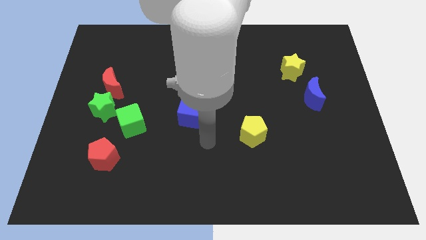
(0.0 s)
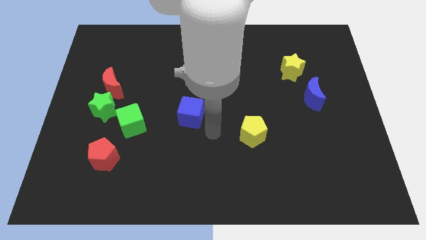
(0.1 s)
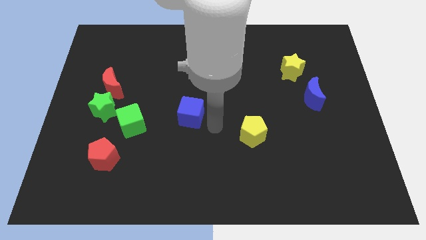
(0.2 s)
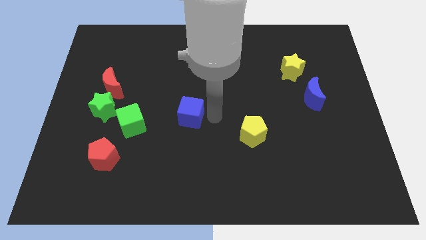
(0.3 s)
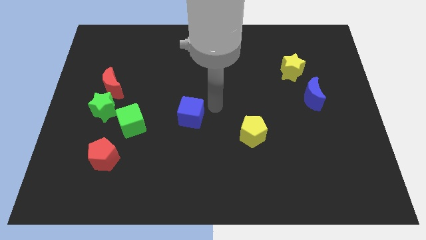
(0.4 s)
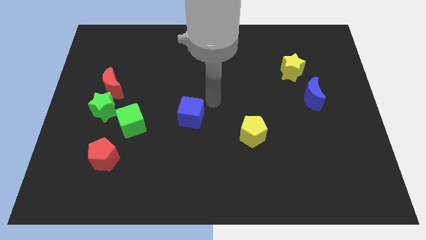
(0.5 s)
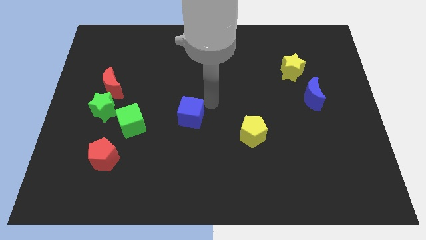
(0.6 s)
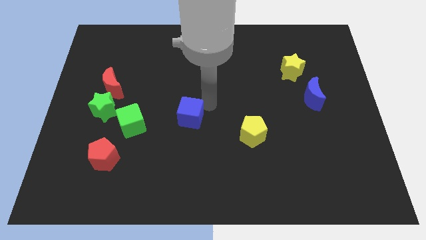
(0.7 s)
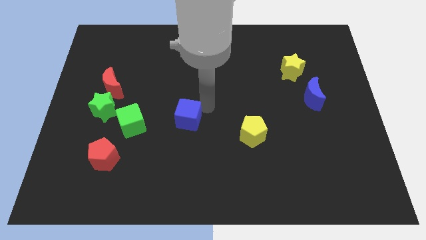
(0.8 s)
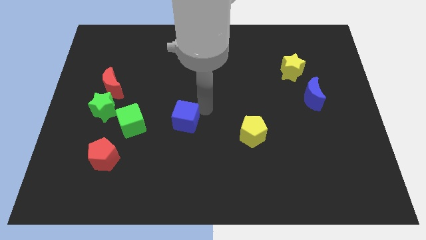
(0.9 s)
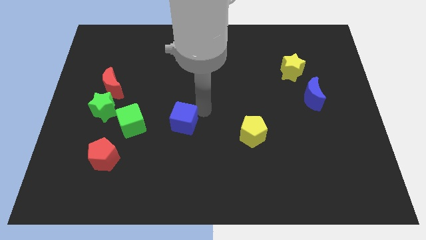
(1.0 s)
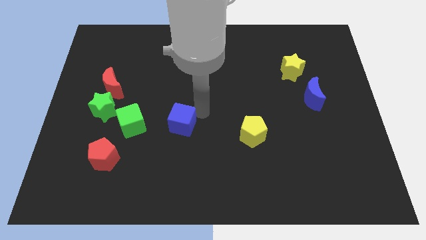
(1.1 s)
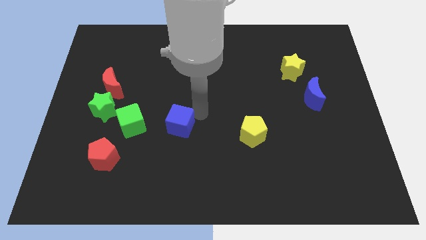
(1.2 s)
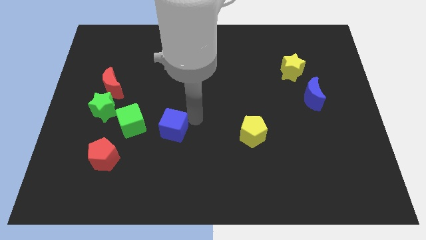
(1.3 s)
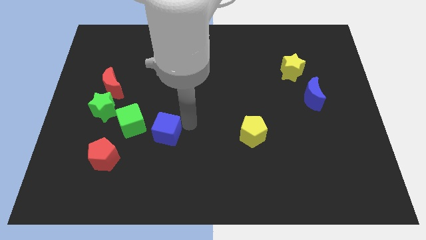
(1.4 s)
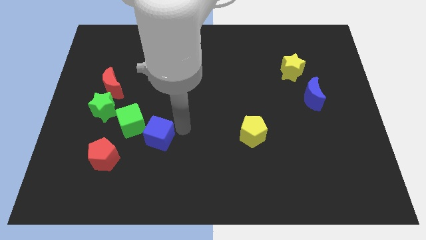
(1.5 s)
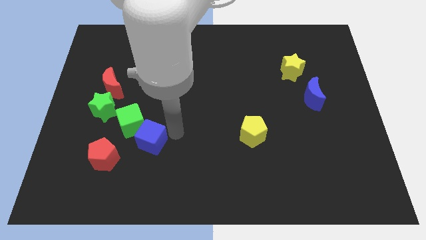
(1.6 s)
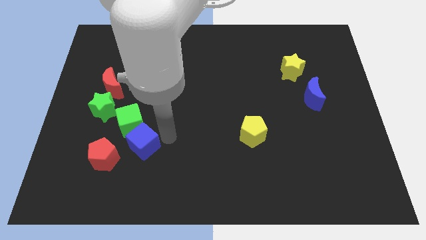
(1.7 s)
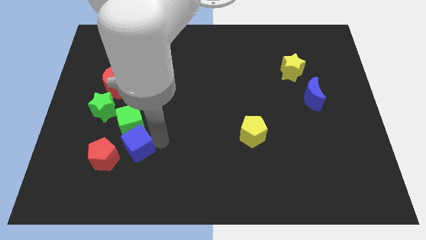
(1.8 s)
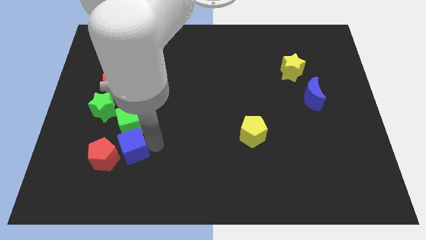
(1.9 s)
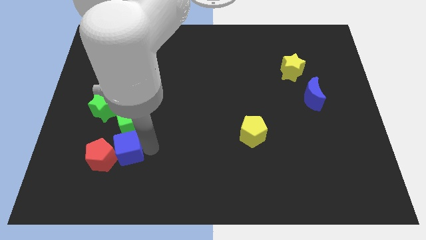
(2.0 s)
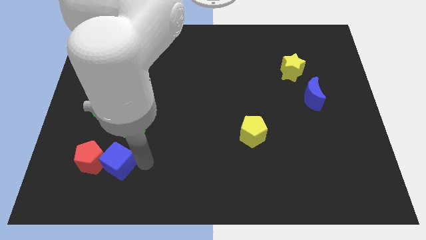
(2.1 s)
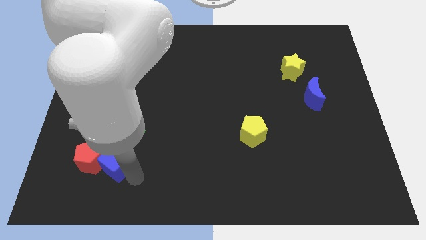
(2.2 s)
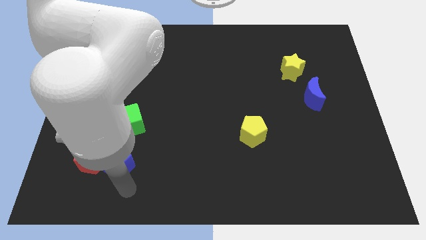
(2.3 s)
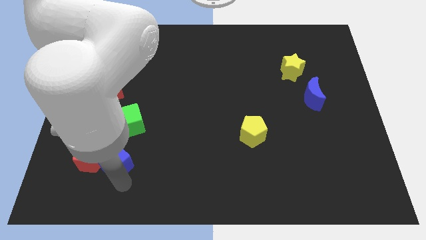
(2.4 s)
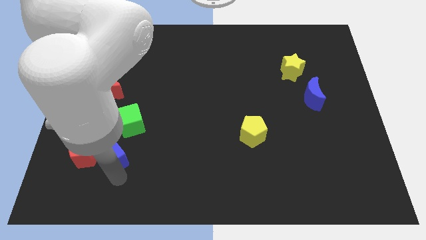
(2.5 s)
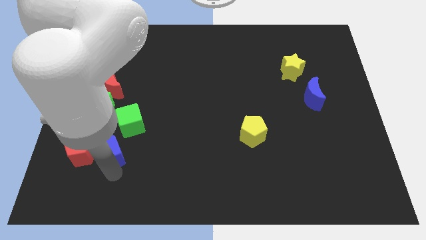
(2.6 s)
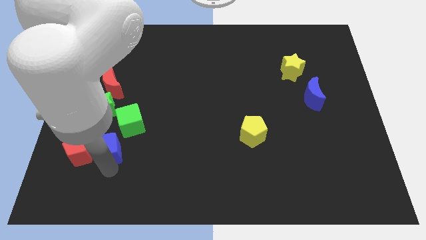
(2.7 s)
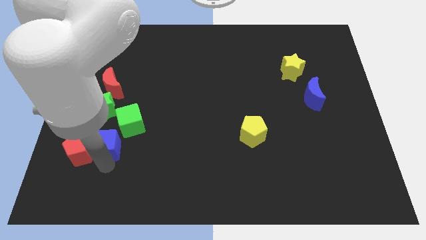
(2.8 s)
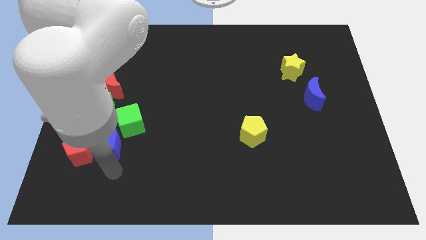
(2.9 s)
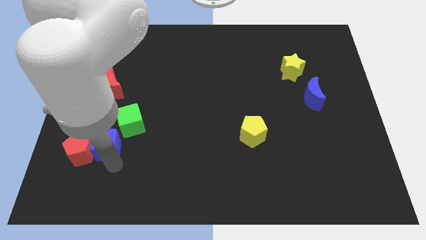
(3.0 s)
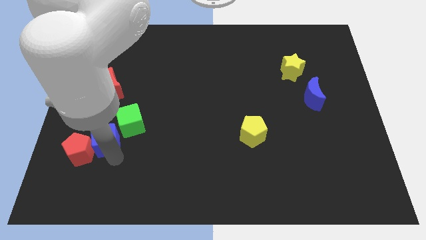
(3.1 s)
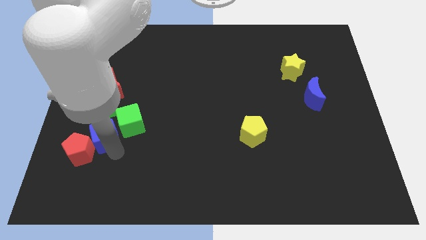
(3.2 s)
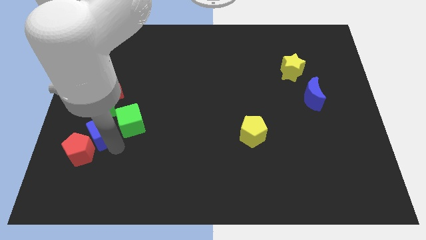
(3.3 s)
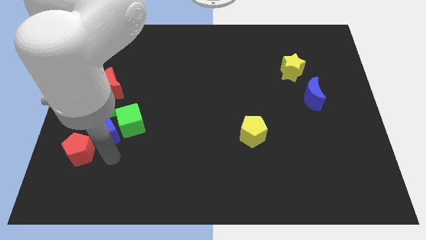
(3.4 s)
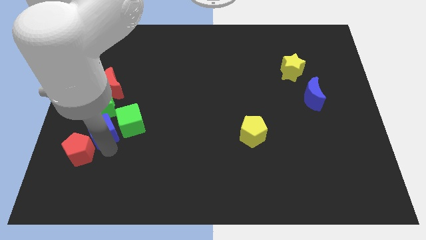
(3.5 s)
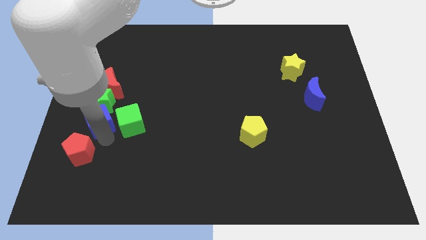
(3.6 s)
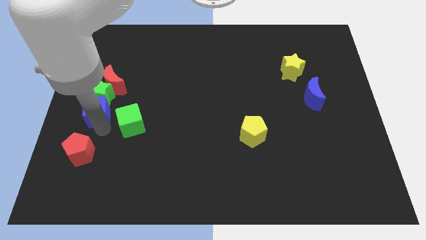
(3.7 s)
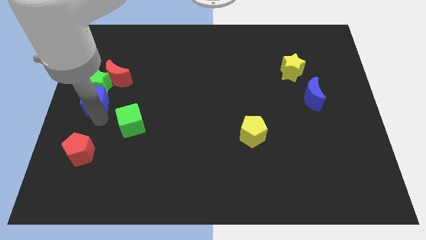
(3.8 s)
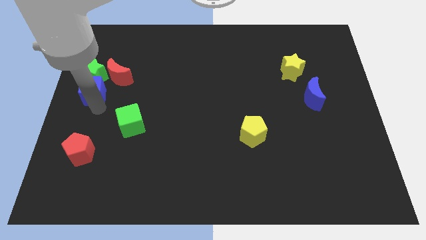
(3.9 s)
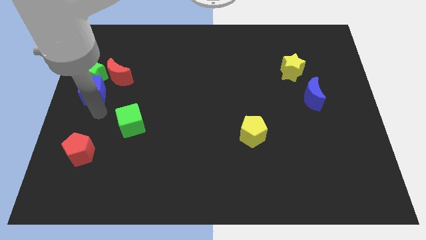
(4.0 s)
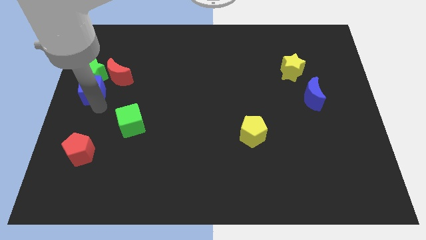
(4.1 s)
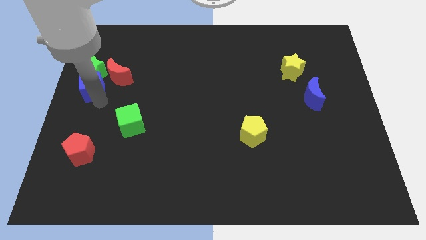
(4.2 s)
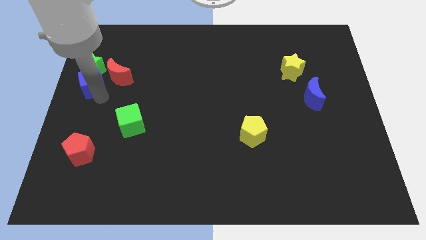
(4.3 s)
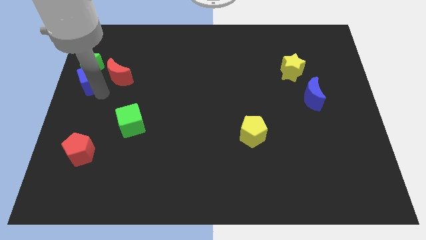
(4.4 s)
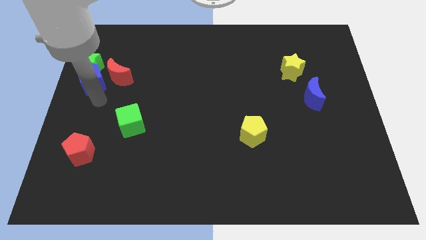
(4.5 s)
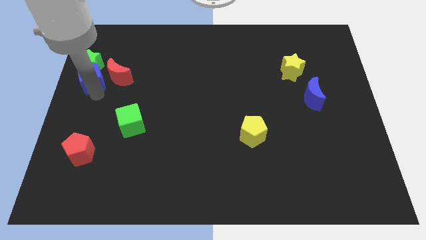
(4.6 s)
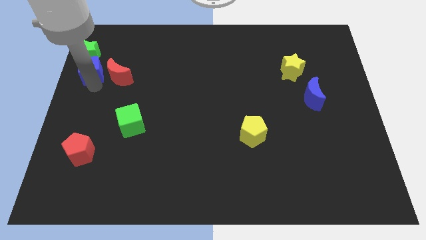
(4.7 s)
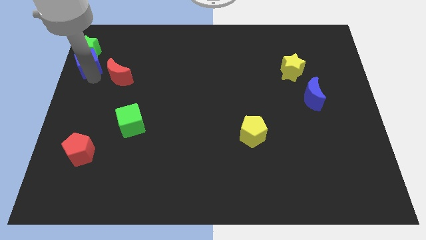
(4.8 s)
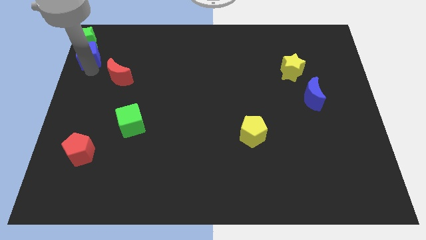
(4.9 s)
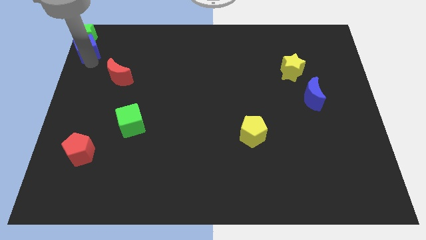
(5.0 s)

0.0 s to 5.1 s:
slide the blue cube to the top left of the board
